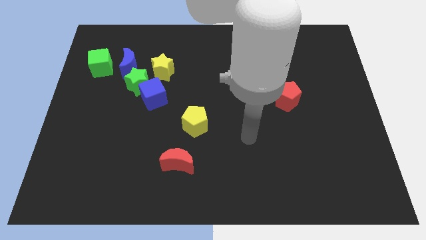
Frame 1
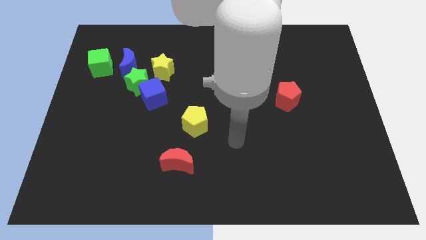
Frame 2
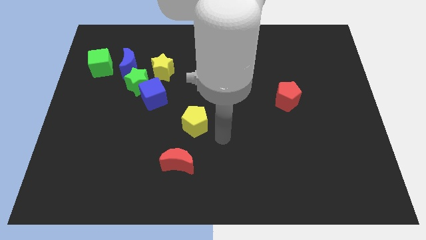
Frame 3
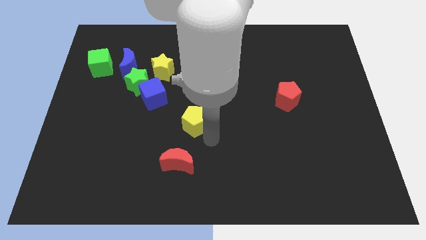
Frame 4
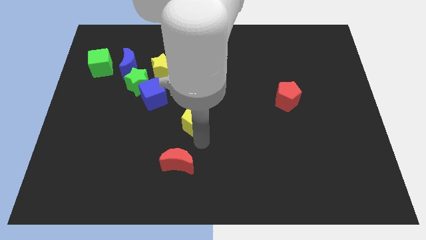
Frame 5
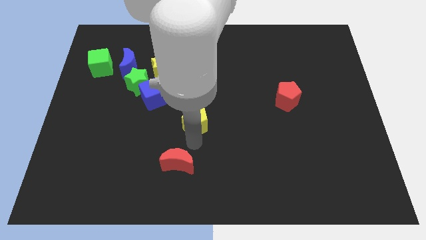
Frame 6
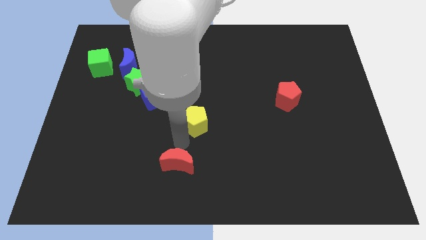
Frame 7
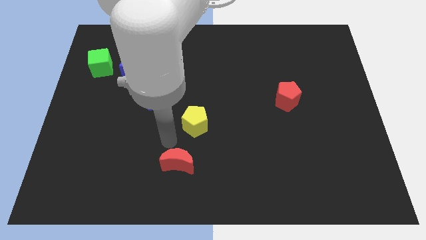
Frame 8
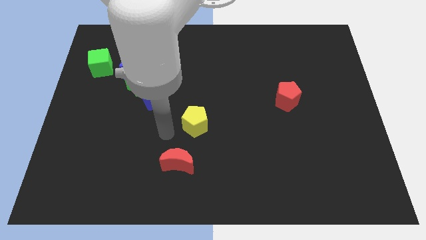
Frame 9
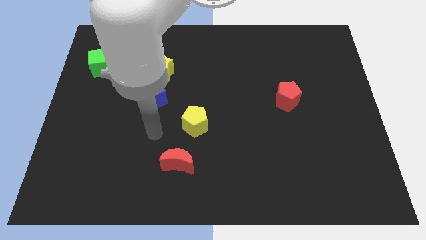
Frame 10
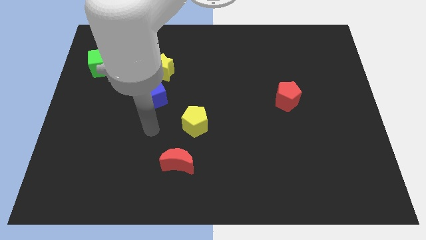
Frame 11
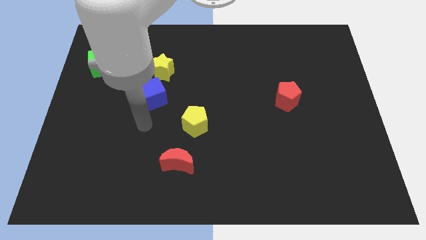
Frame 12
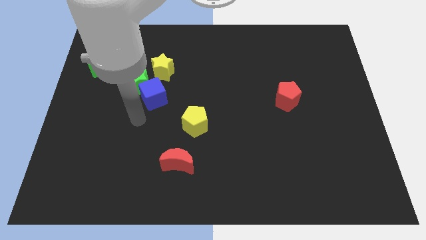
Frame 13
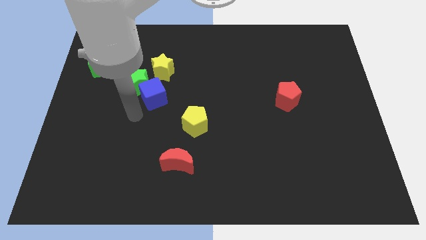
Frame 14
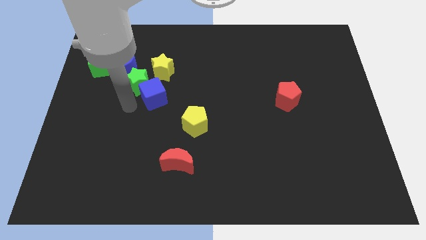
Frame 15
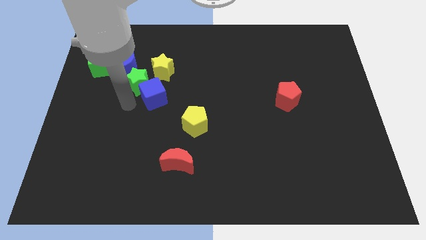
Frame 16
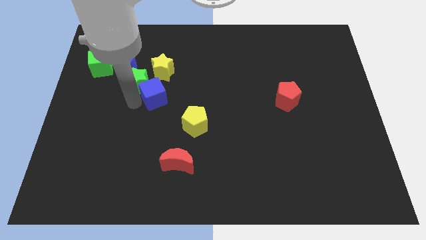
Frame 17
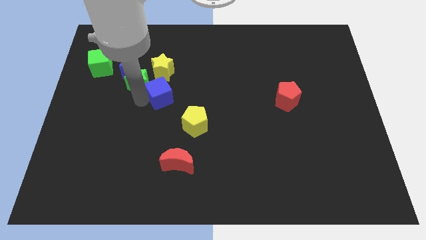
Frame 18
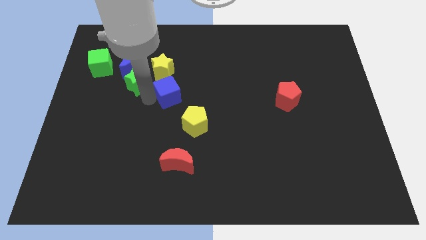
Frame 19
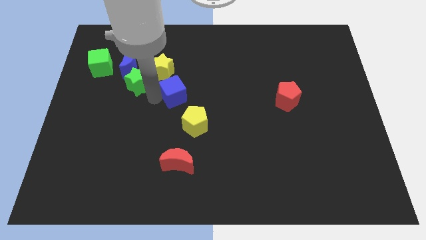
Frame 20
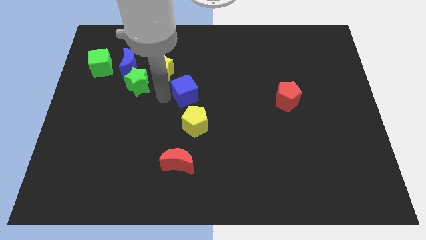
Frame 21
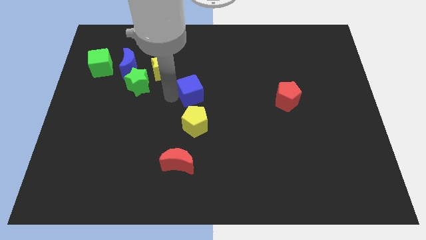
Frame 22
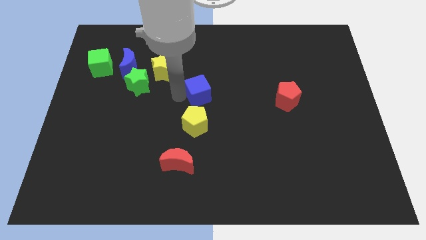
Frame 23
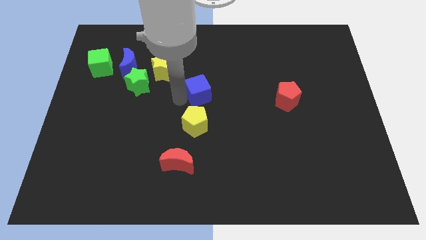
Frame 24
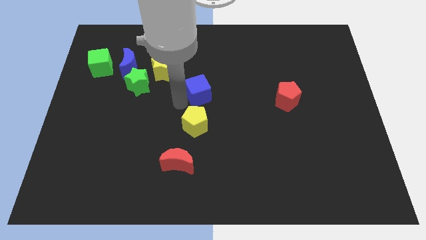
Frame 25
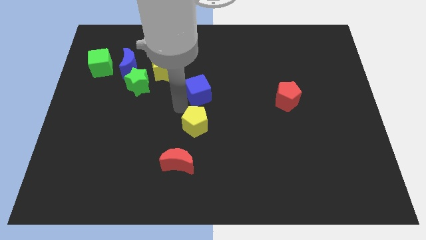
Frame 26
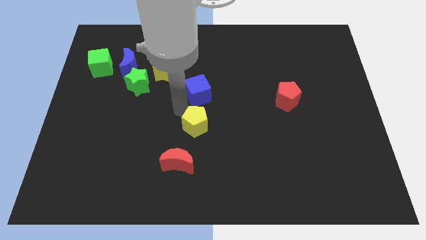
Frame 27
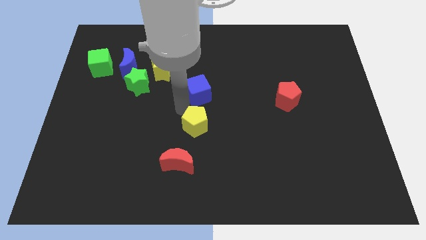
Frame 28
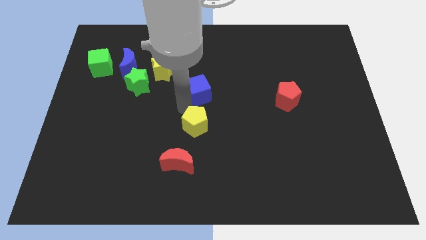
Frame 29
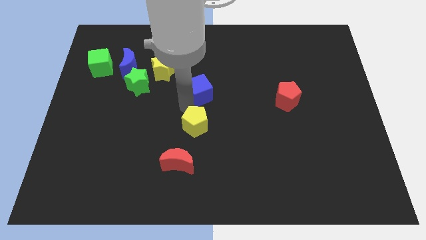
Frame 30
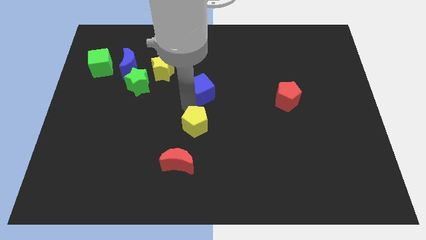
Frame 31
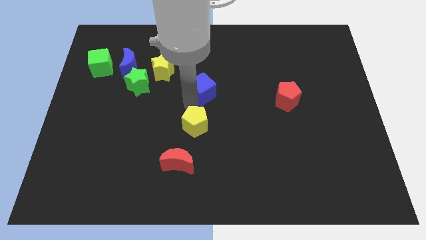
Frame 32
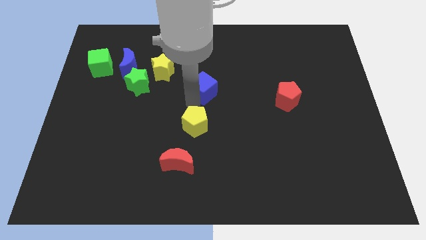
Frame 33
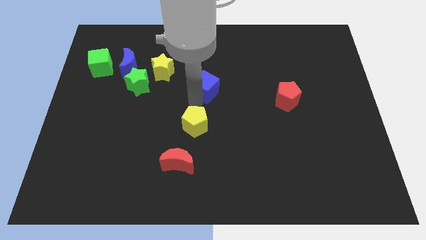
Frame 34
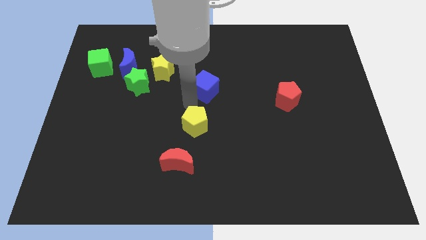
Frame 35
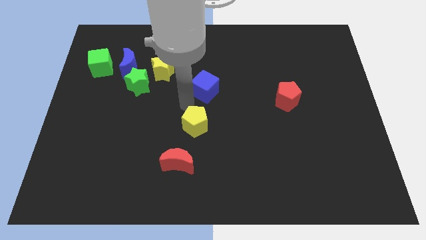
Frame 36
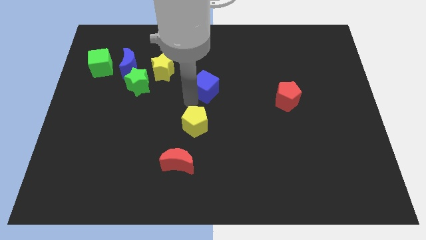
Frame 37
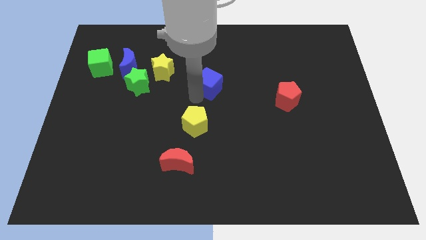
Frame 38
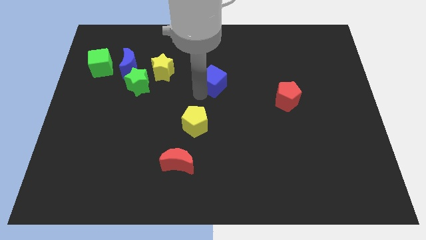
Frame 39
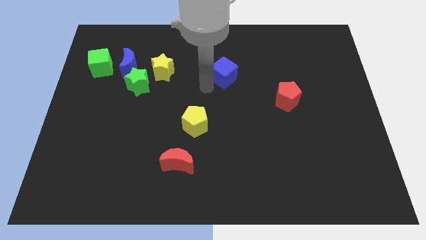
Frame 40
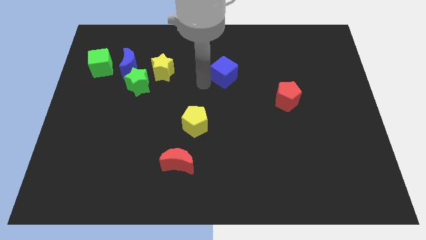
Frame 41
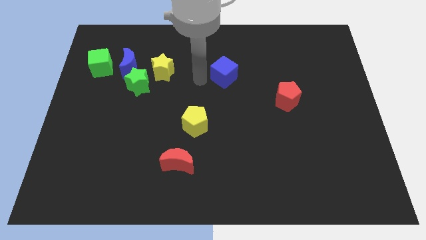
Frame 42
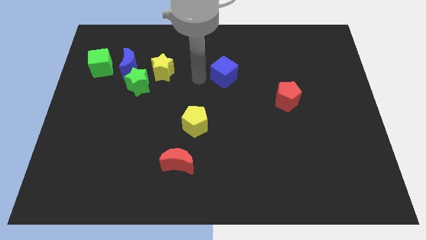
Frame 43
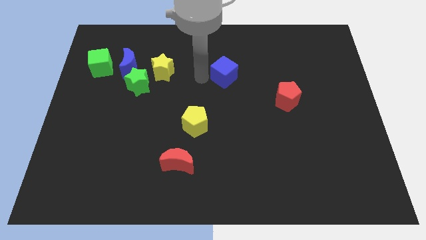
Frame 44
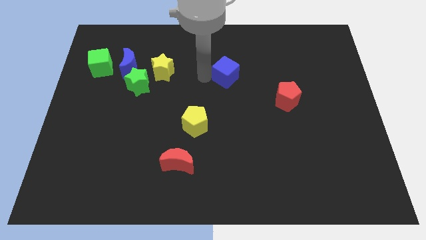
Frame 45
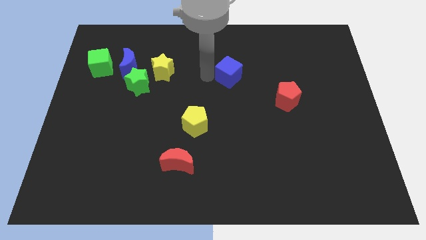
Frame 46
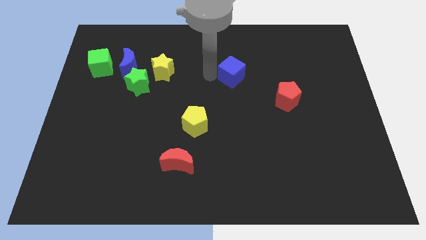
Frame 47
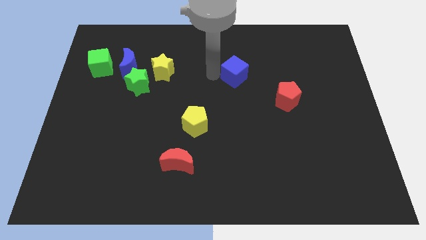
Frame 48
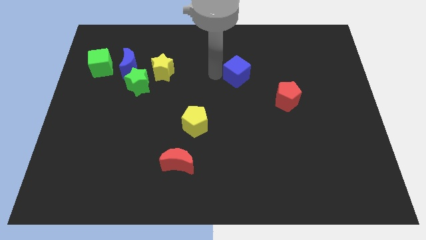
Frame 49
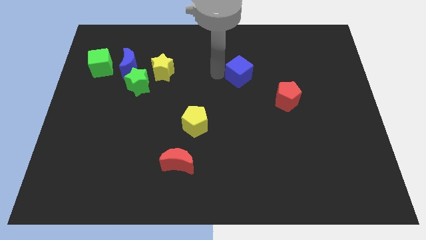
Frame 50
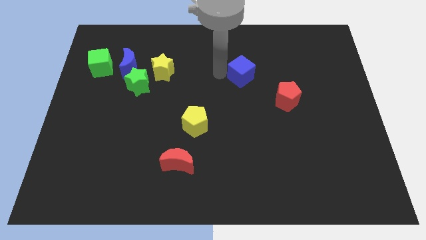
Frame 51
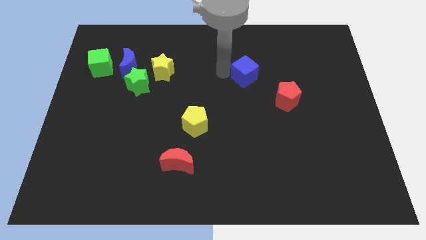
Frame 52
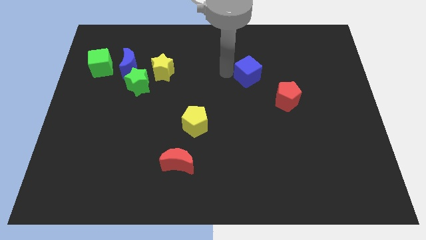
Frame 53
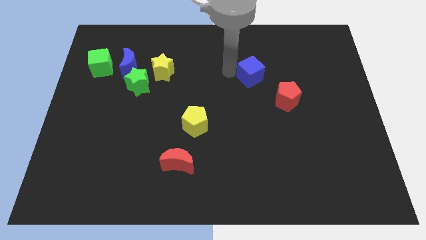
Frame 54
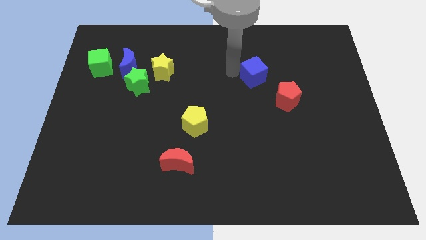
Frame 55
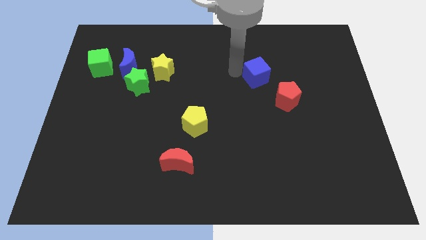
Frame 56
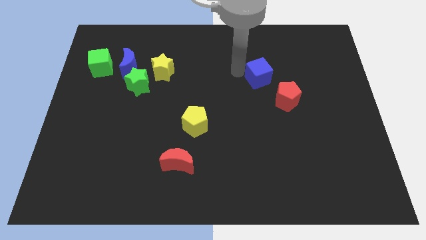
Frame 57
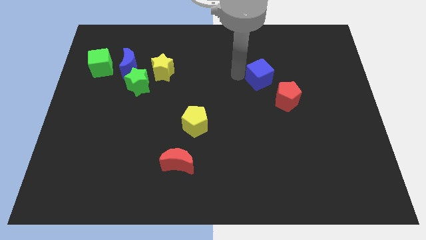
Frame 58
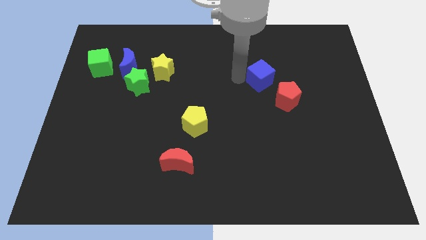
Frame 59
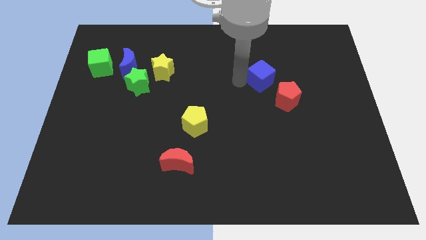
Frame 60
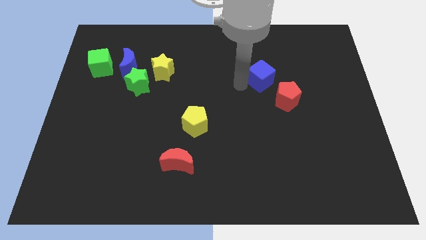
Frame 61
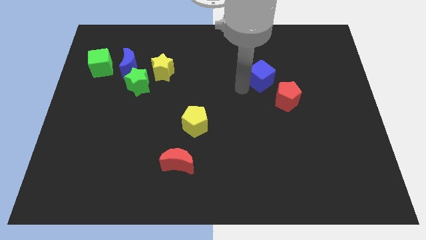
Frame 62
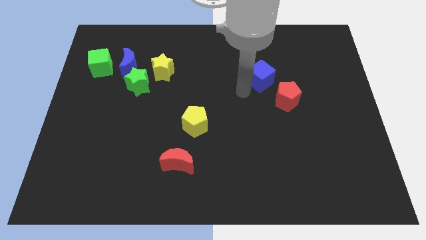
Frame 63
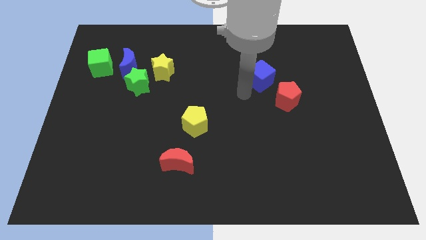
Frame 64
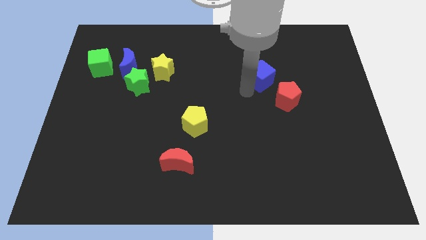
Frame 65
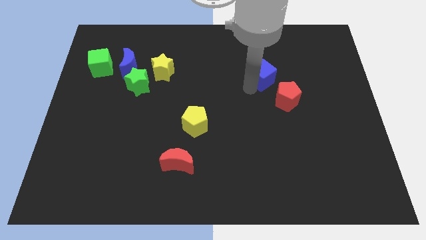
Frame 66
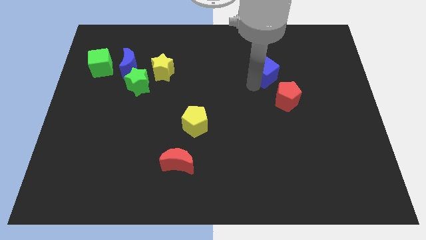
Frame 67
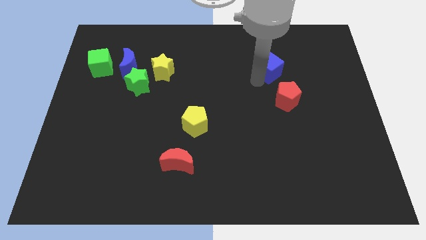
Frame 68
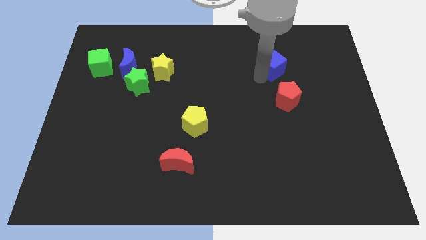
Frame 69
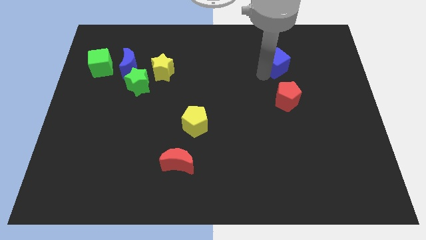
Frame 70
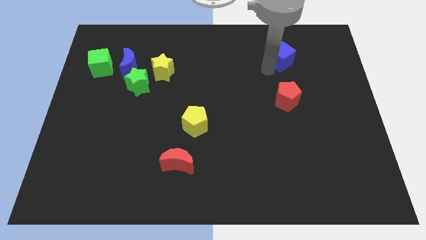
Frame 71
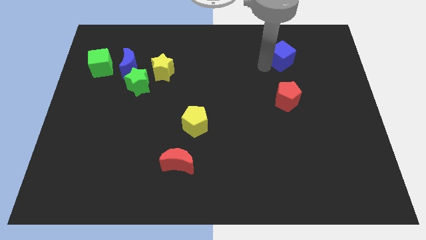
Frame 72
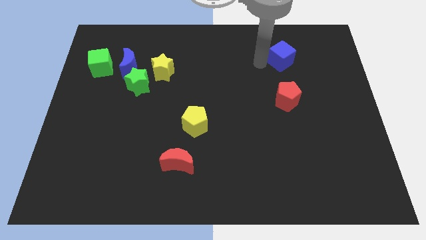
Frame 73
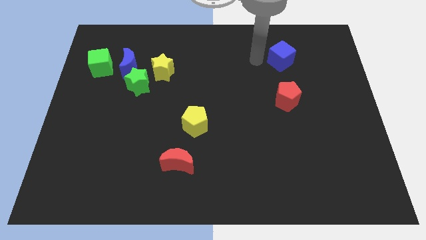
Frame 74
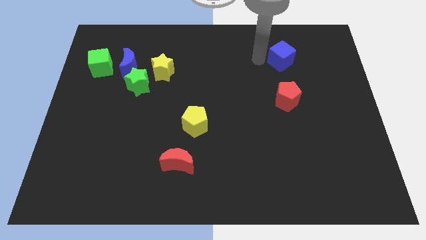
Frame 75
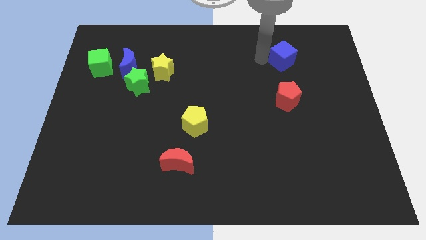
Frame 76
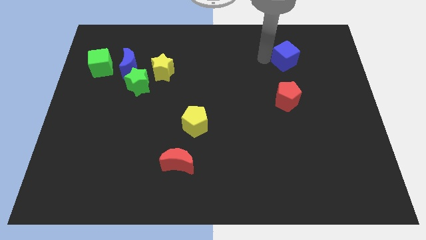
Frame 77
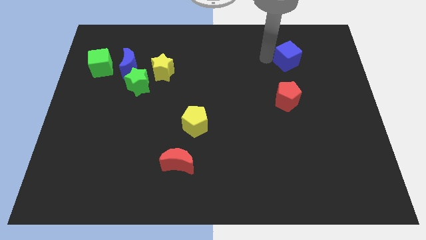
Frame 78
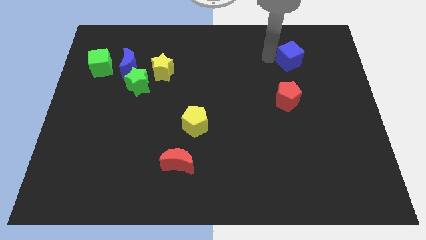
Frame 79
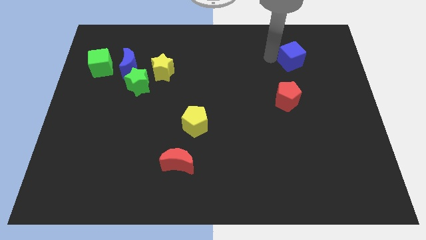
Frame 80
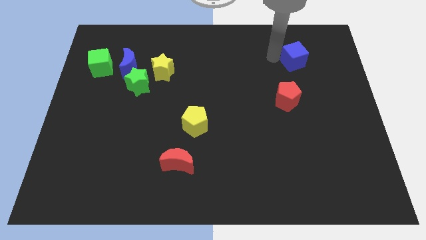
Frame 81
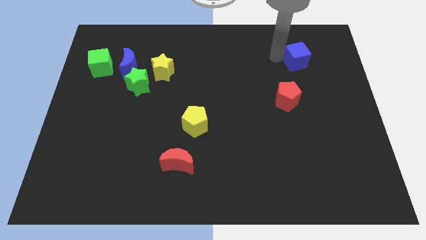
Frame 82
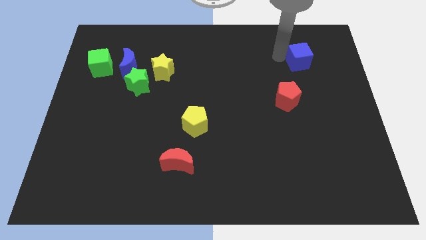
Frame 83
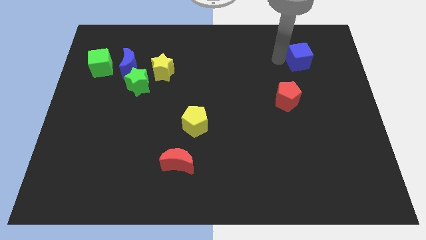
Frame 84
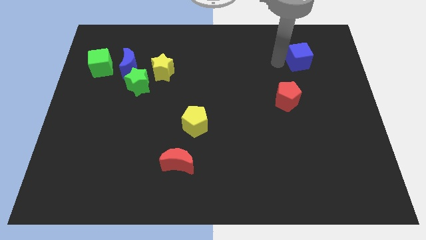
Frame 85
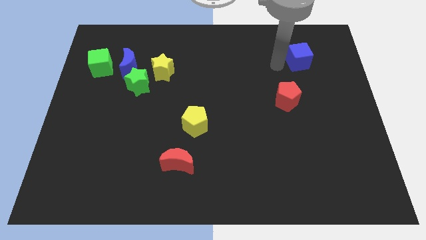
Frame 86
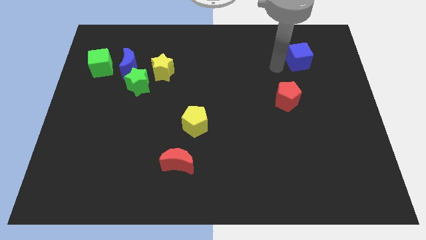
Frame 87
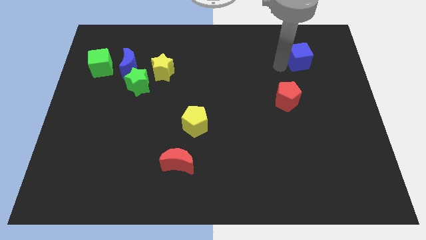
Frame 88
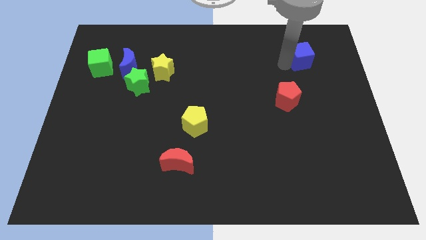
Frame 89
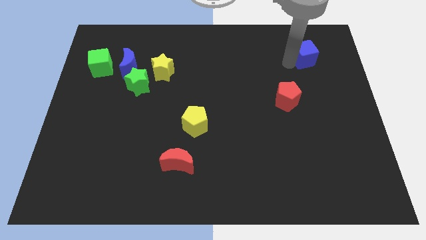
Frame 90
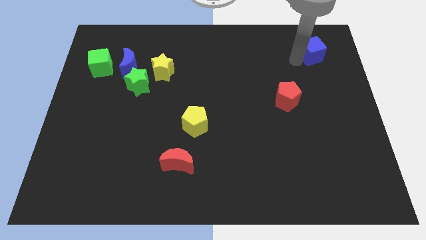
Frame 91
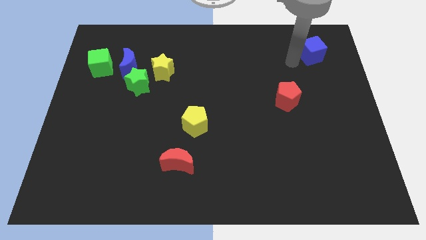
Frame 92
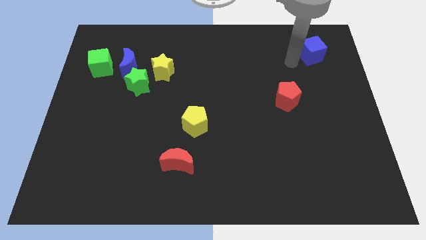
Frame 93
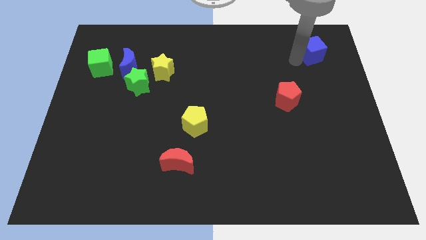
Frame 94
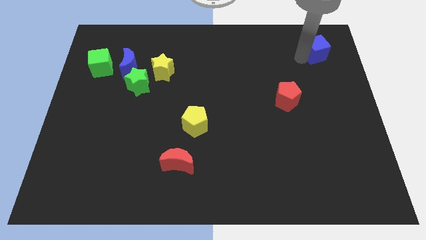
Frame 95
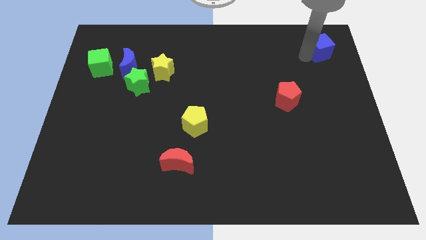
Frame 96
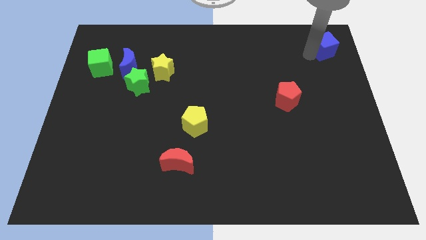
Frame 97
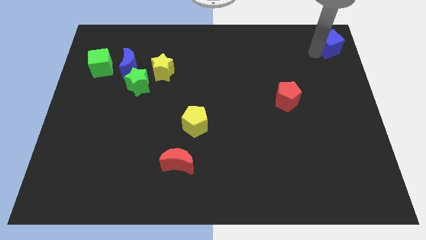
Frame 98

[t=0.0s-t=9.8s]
move the blue cube to the upper right corner
